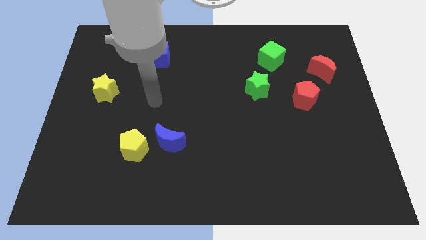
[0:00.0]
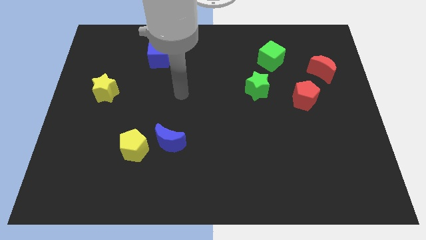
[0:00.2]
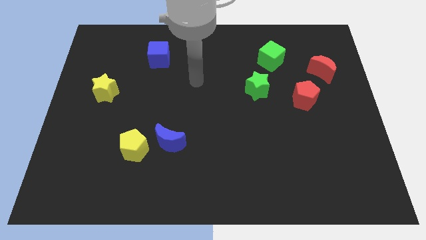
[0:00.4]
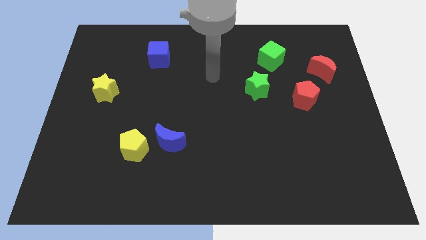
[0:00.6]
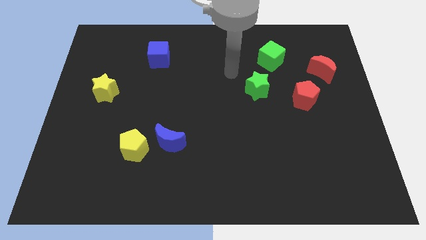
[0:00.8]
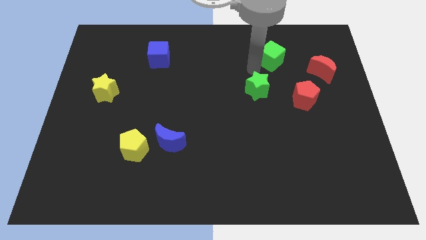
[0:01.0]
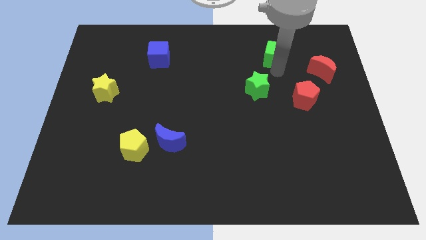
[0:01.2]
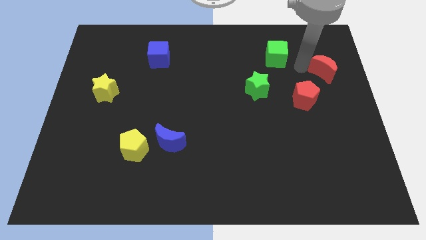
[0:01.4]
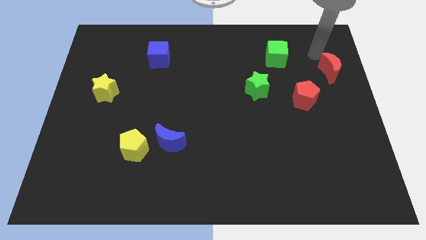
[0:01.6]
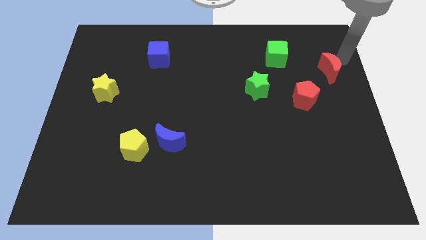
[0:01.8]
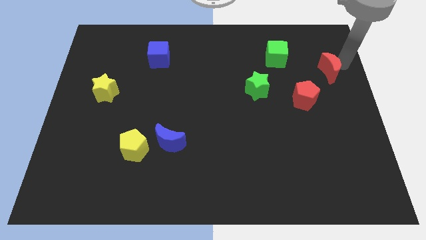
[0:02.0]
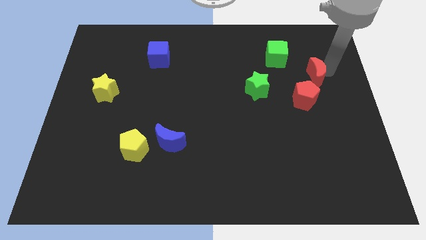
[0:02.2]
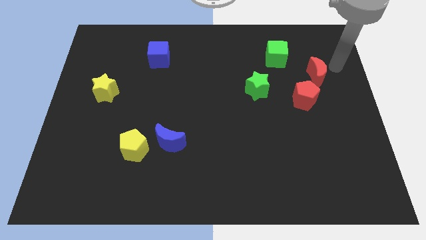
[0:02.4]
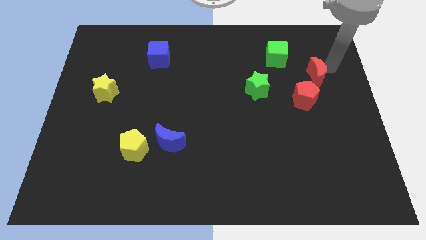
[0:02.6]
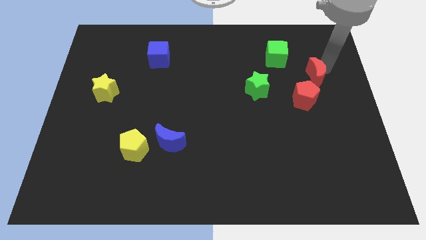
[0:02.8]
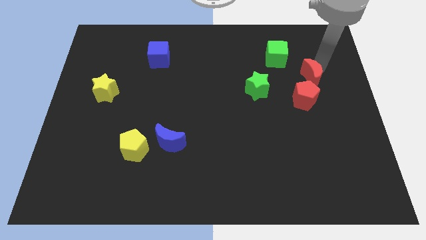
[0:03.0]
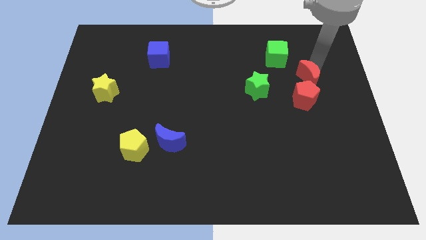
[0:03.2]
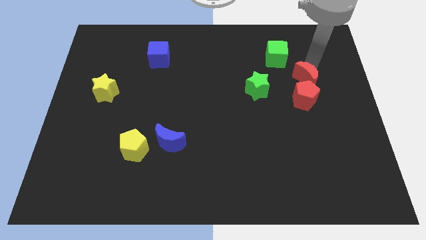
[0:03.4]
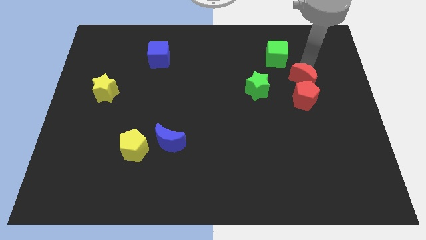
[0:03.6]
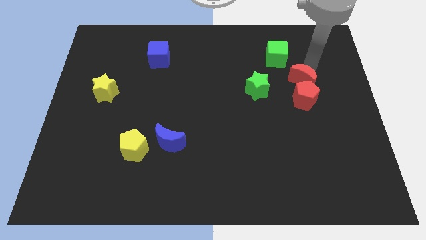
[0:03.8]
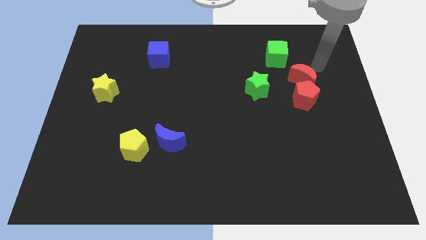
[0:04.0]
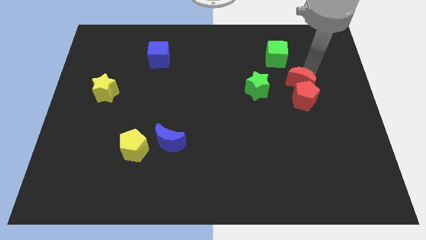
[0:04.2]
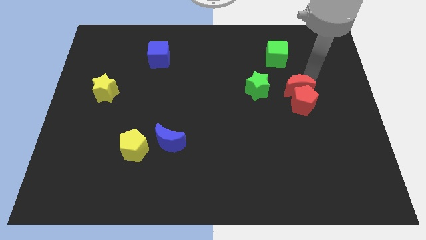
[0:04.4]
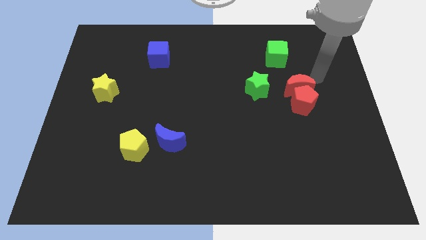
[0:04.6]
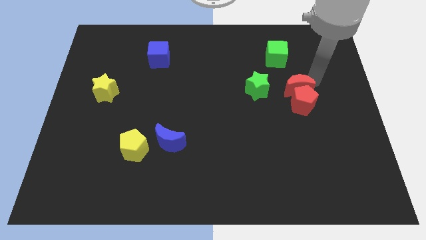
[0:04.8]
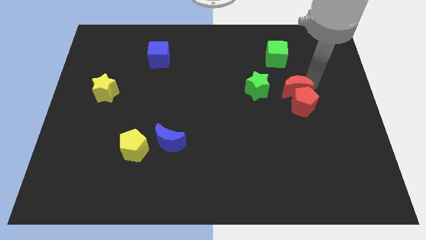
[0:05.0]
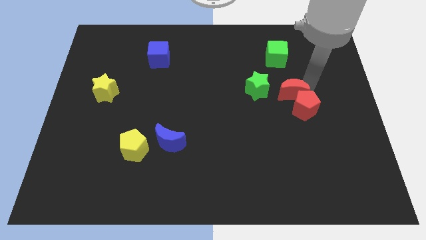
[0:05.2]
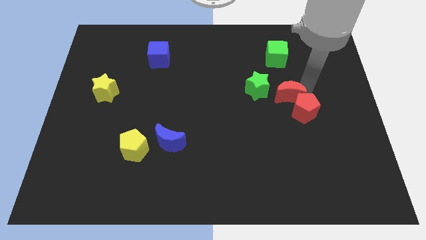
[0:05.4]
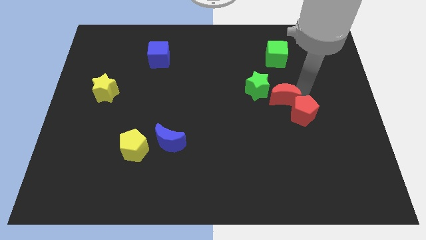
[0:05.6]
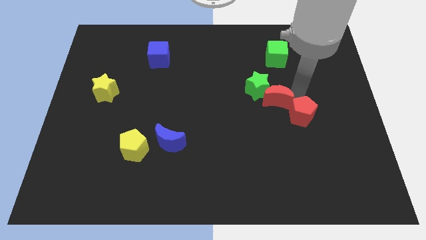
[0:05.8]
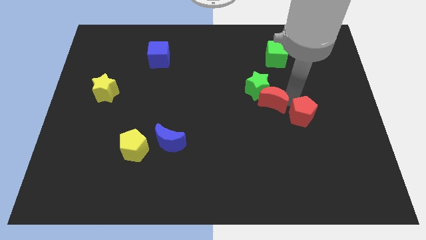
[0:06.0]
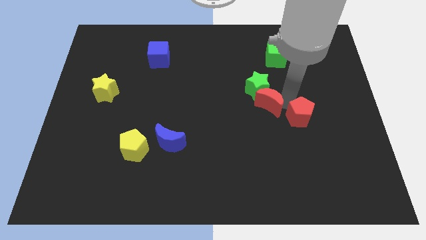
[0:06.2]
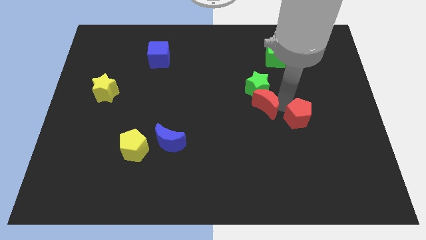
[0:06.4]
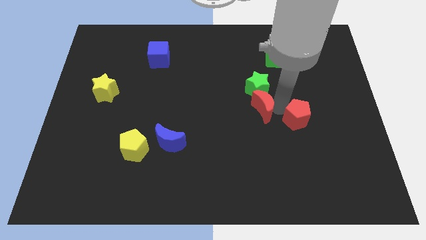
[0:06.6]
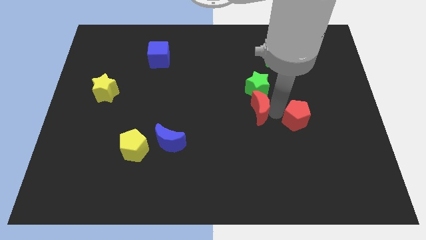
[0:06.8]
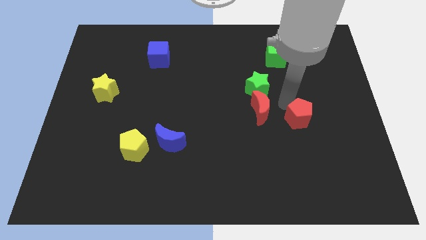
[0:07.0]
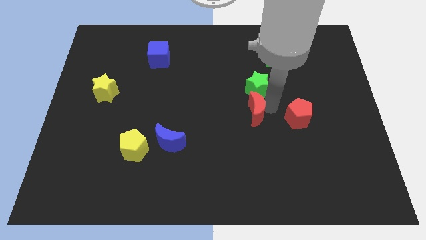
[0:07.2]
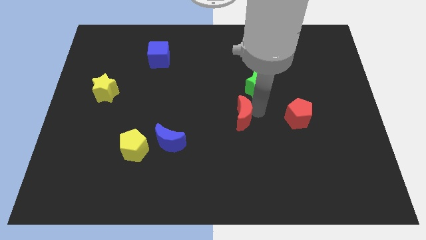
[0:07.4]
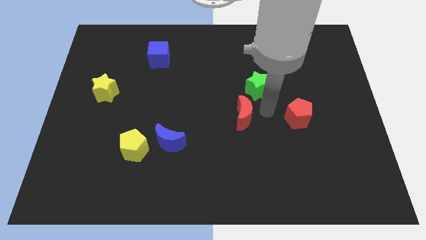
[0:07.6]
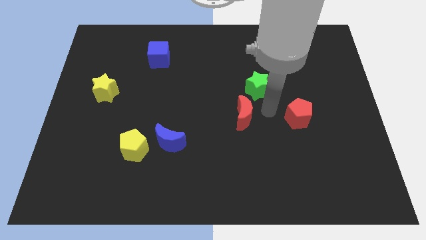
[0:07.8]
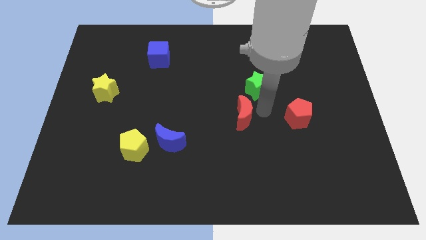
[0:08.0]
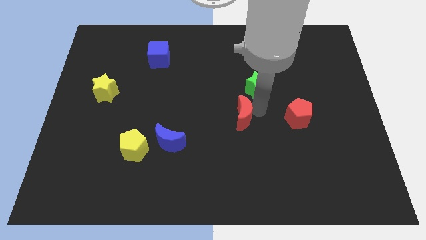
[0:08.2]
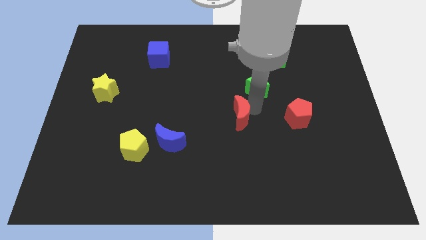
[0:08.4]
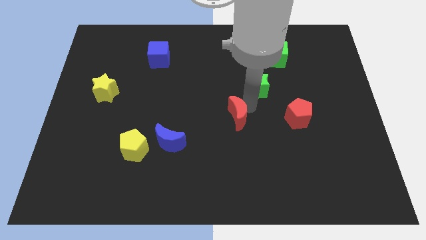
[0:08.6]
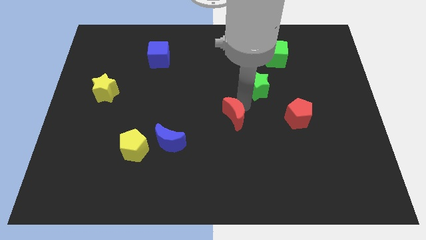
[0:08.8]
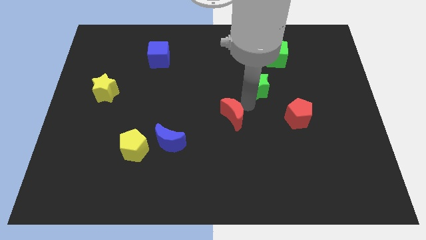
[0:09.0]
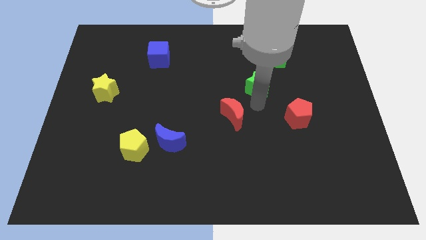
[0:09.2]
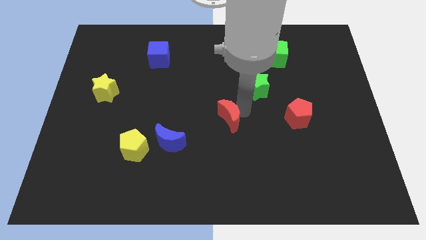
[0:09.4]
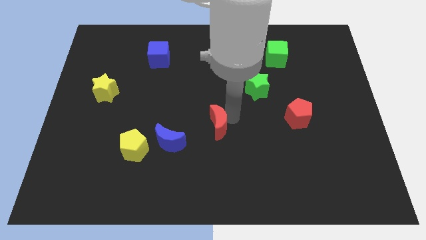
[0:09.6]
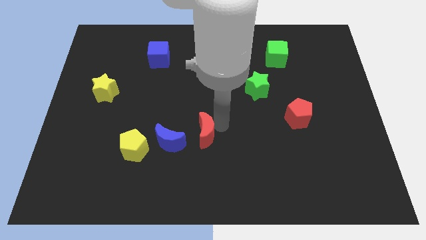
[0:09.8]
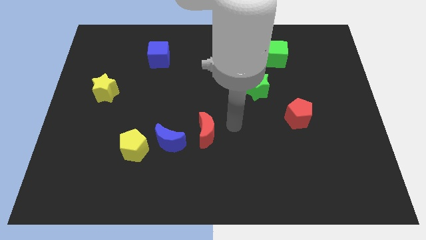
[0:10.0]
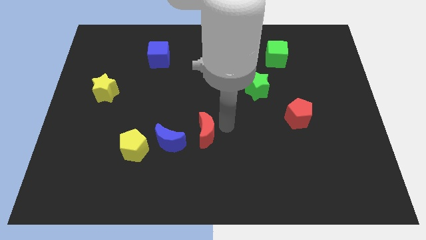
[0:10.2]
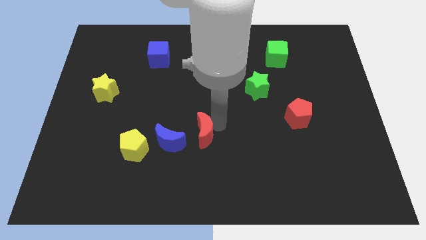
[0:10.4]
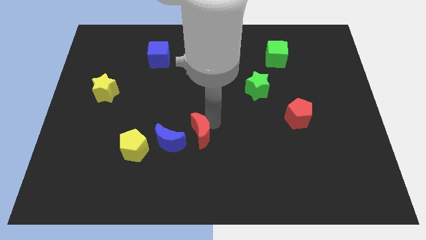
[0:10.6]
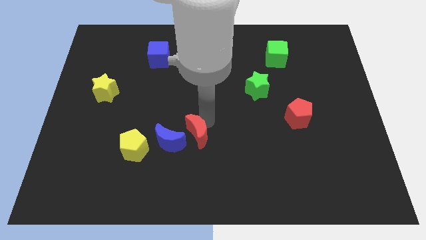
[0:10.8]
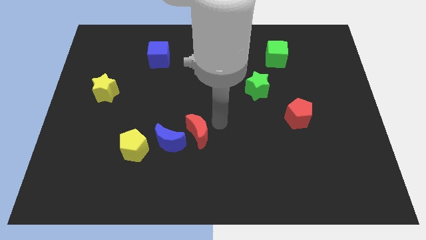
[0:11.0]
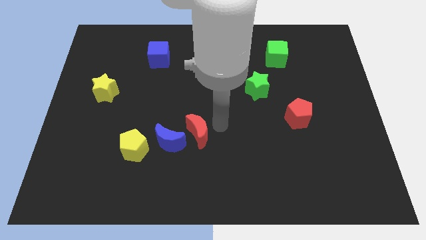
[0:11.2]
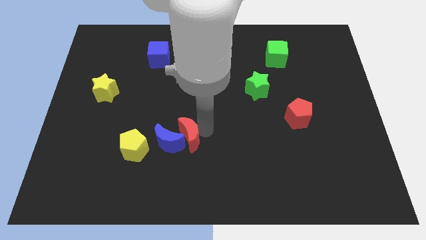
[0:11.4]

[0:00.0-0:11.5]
slide the red moon next to the blue moon

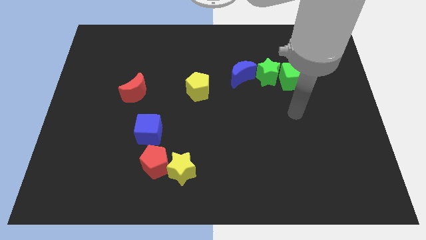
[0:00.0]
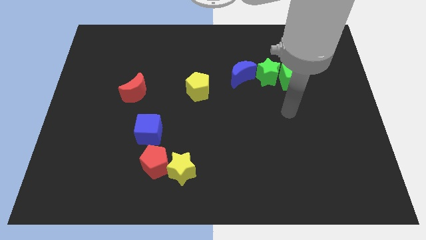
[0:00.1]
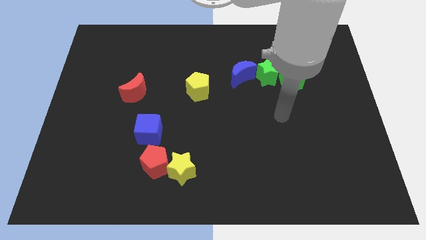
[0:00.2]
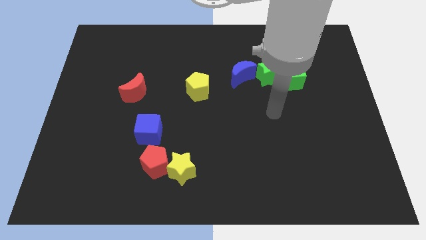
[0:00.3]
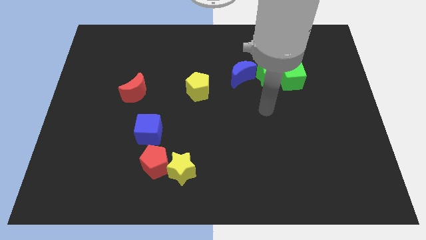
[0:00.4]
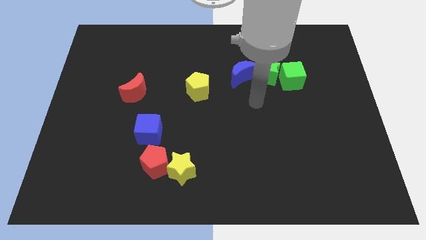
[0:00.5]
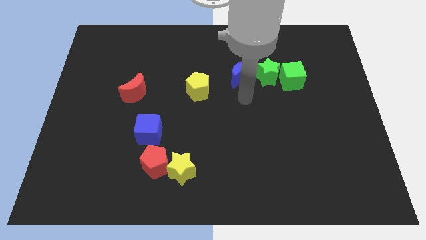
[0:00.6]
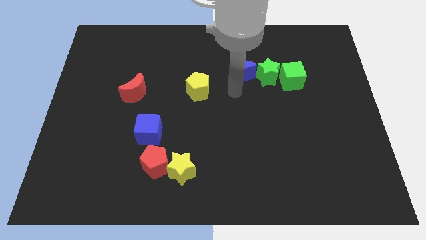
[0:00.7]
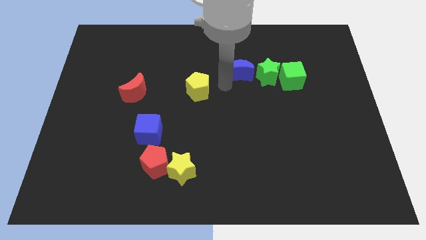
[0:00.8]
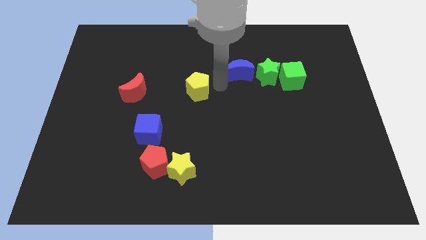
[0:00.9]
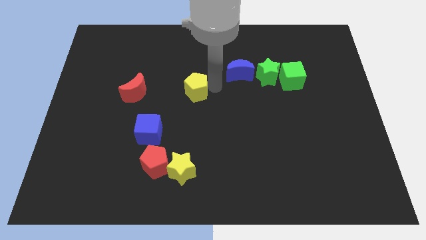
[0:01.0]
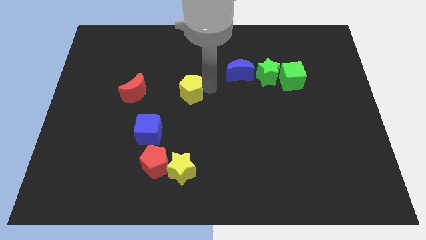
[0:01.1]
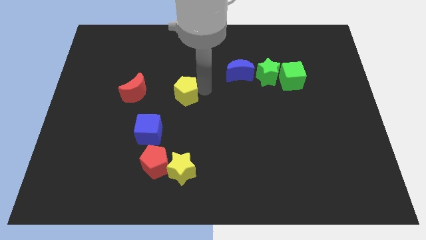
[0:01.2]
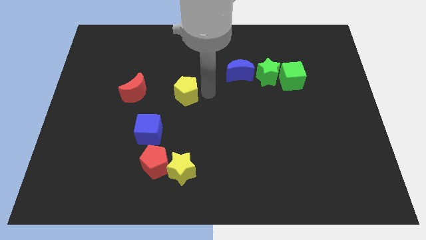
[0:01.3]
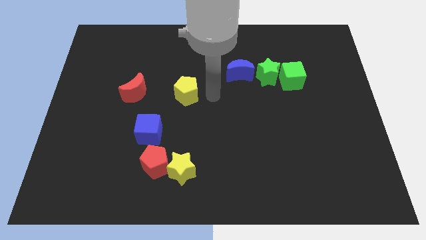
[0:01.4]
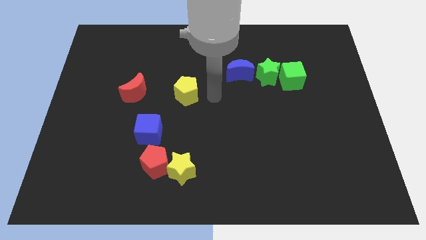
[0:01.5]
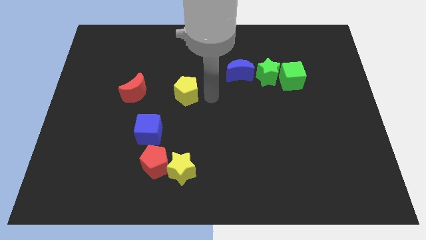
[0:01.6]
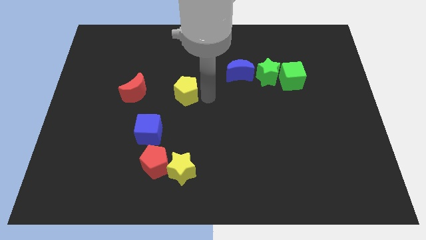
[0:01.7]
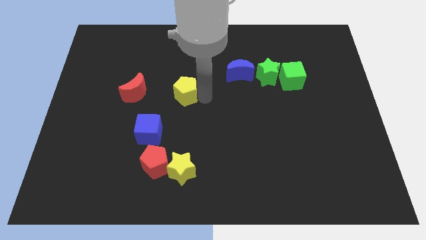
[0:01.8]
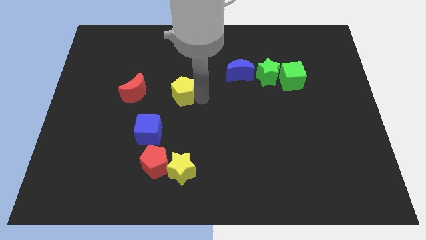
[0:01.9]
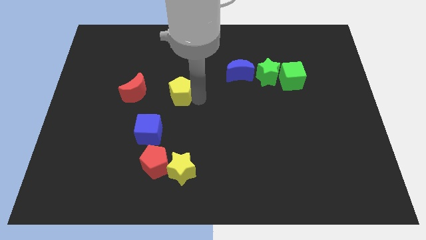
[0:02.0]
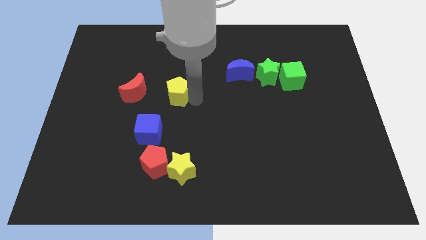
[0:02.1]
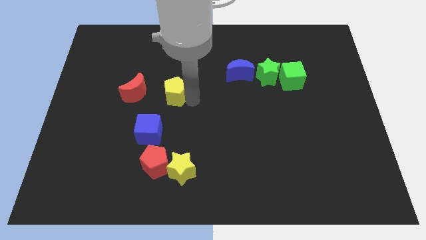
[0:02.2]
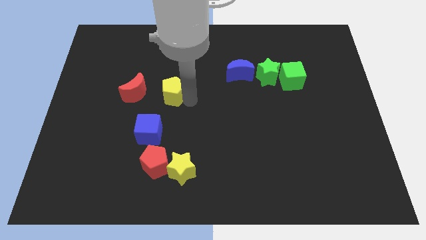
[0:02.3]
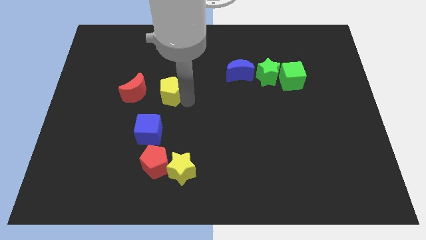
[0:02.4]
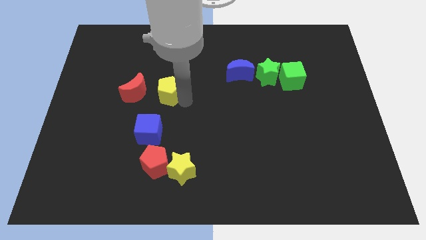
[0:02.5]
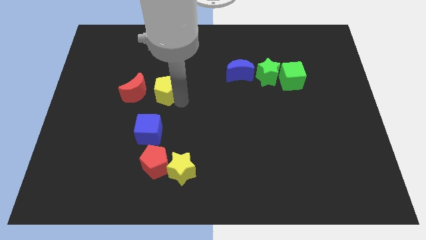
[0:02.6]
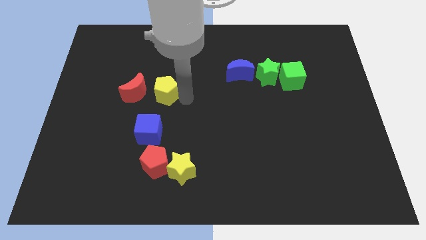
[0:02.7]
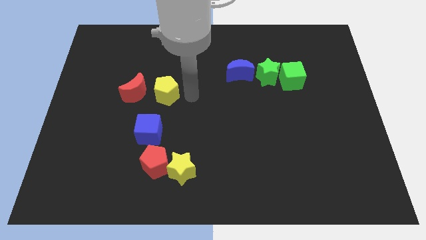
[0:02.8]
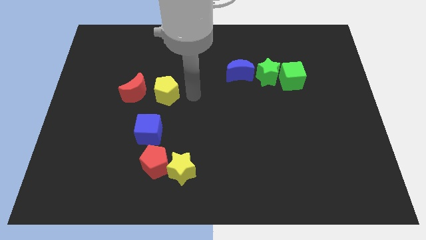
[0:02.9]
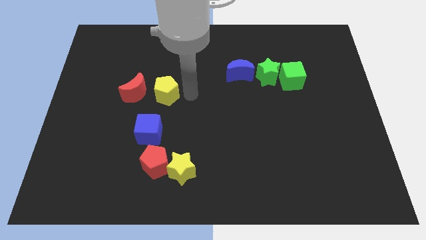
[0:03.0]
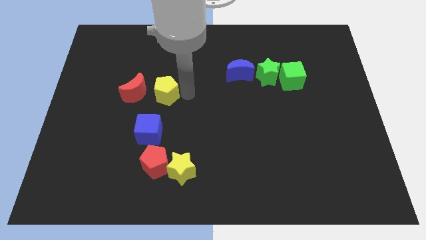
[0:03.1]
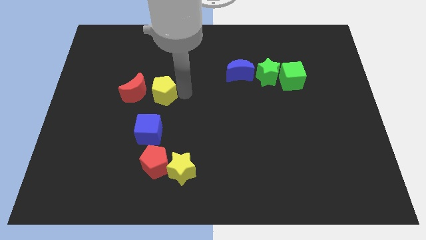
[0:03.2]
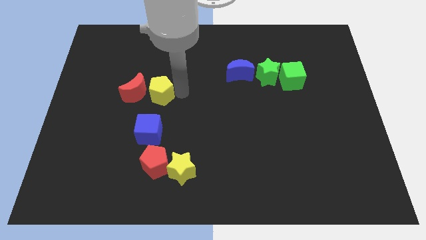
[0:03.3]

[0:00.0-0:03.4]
push the yellow pentagon next to the red moon
